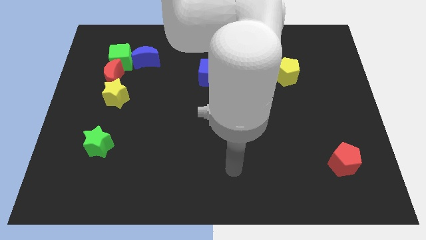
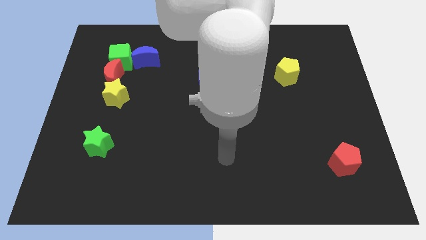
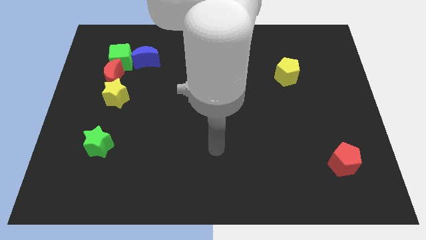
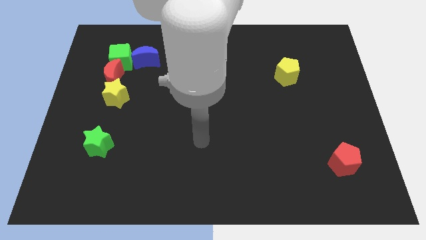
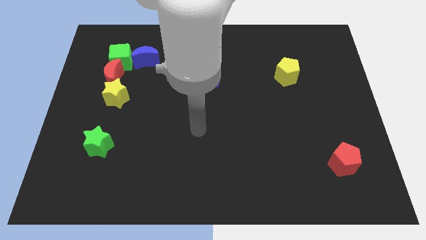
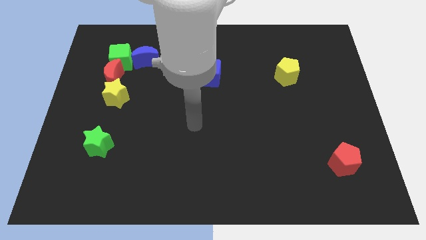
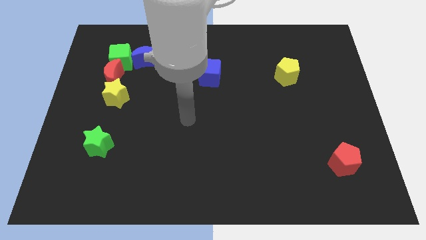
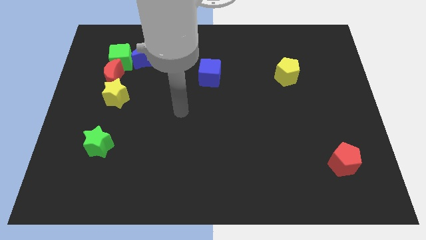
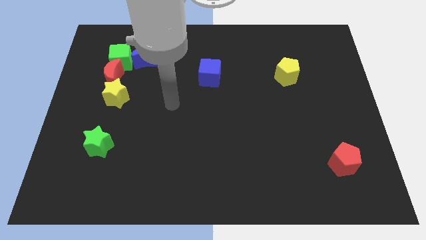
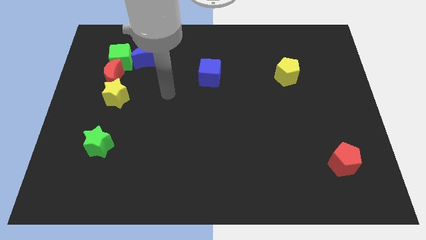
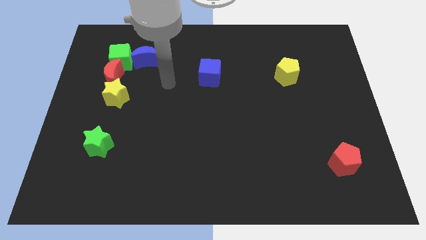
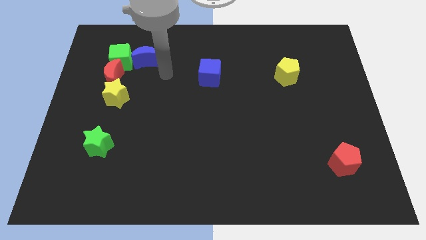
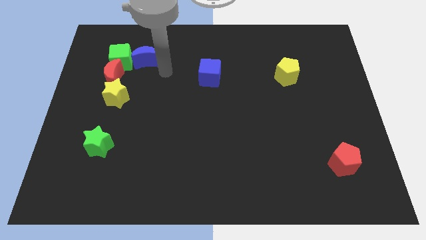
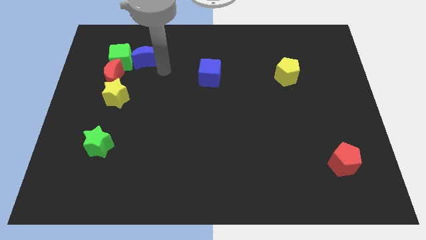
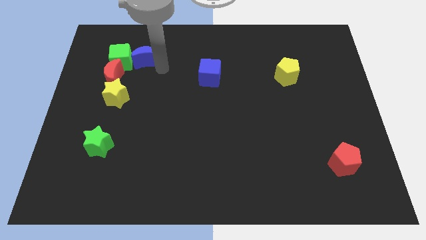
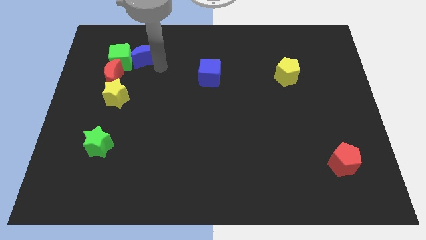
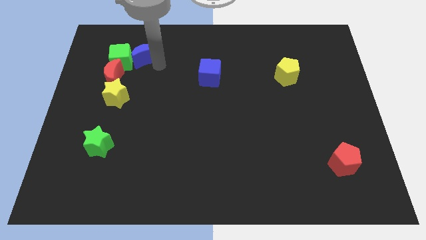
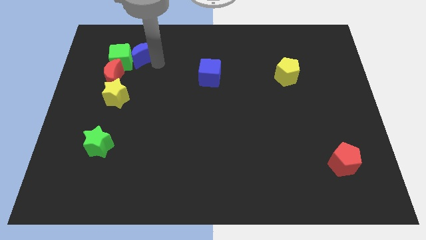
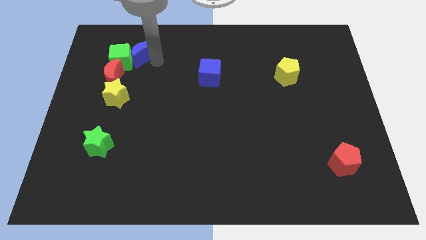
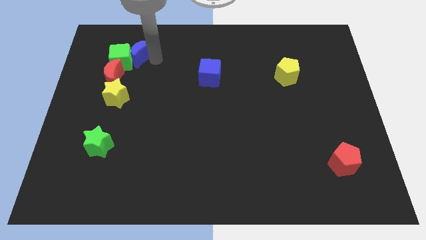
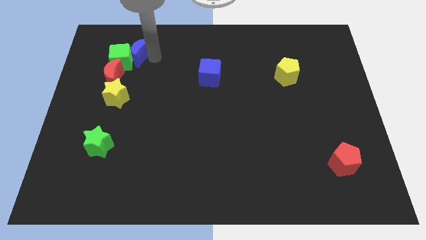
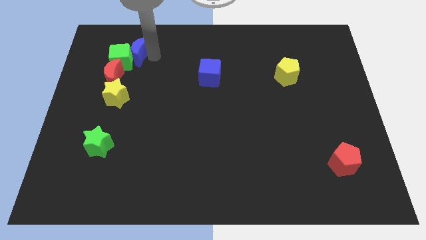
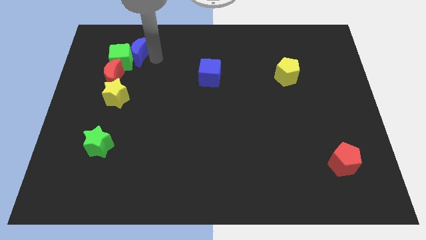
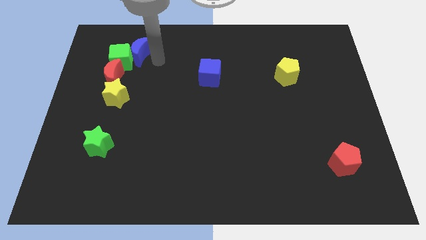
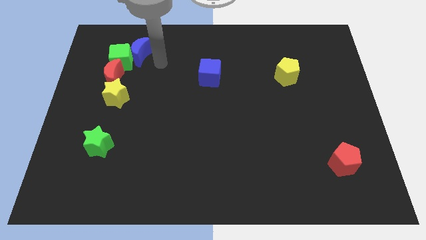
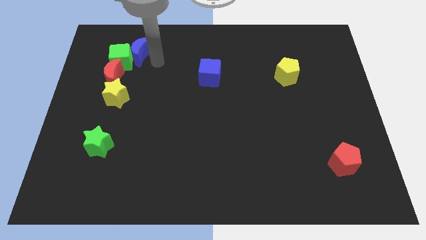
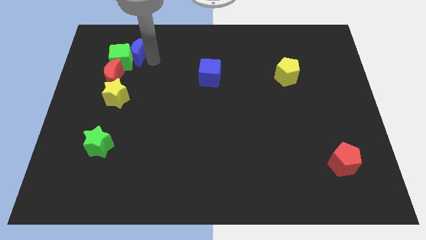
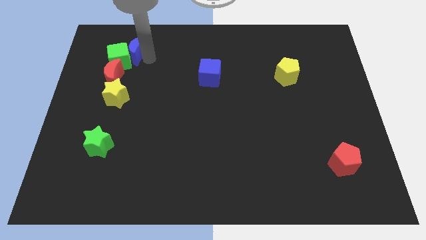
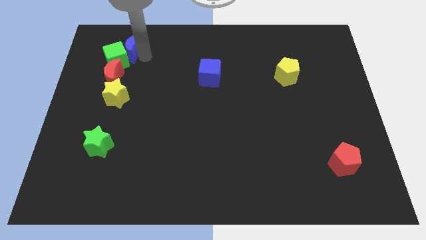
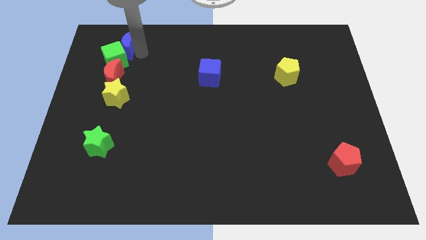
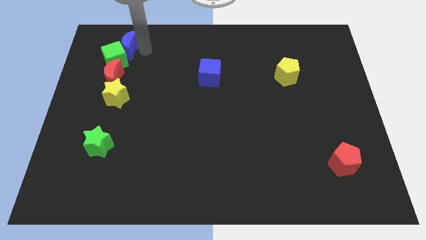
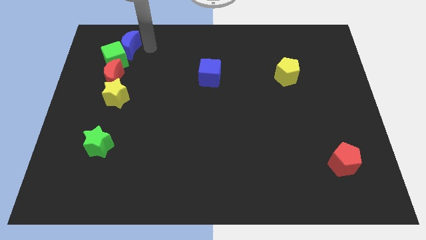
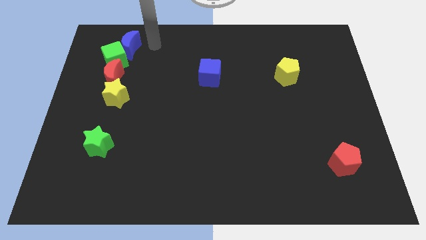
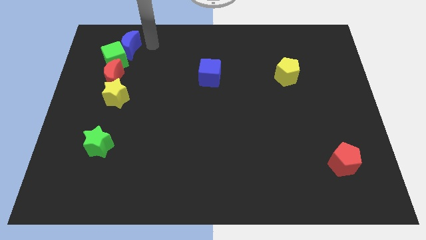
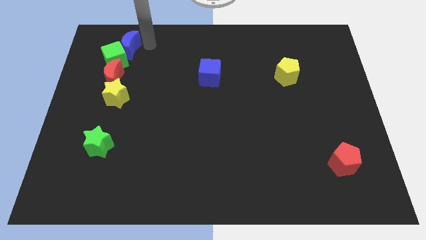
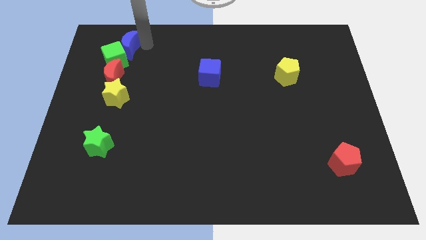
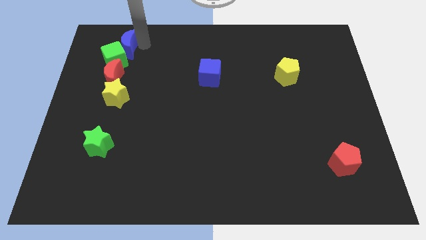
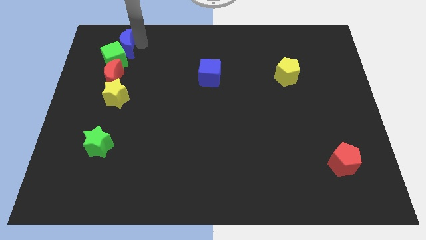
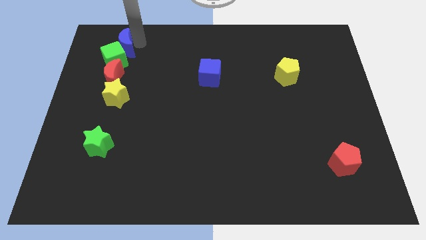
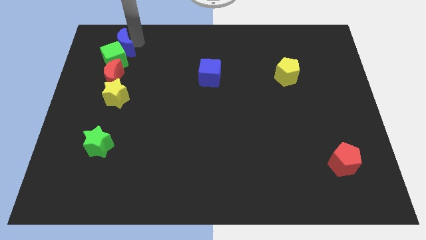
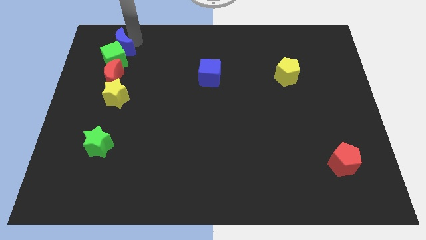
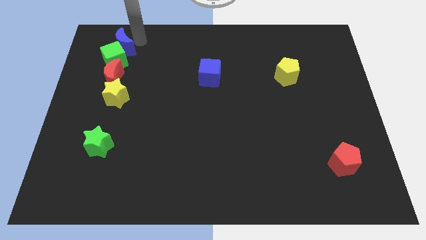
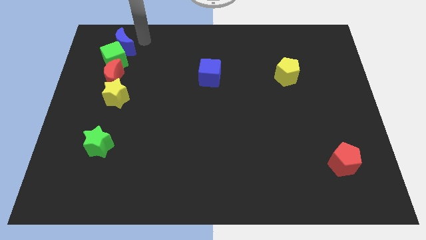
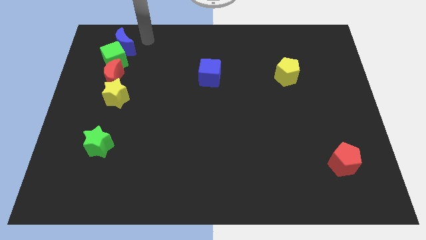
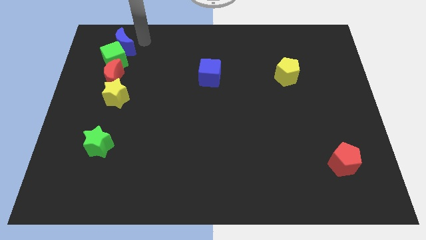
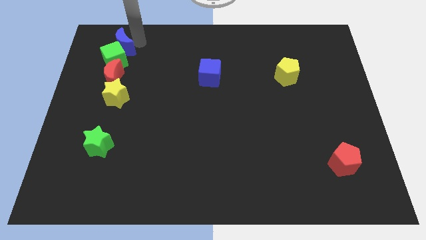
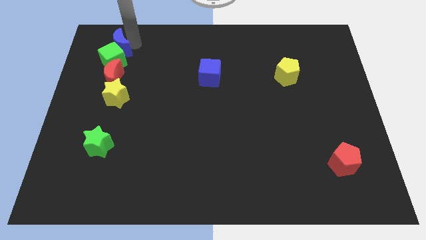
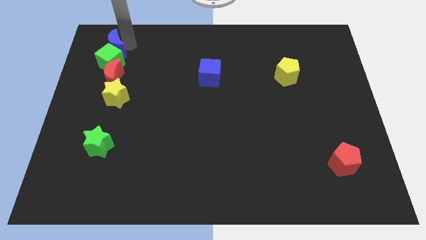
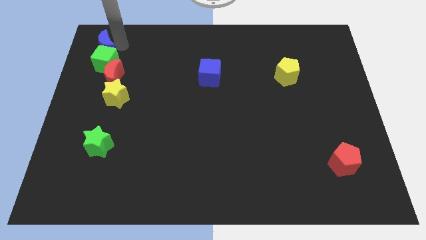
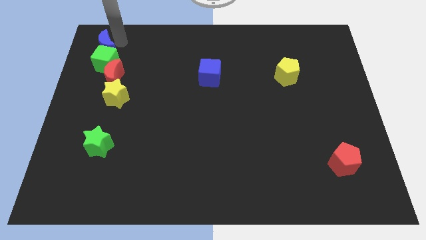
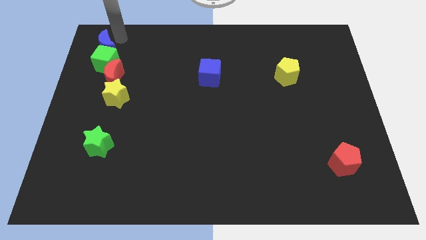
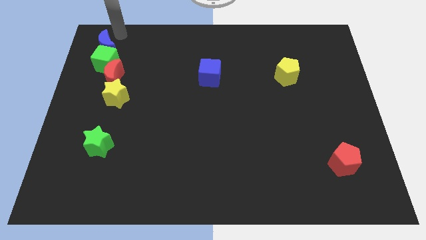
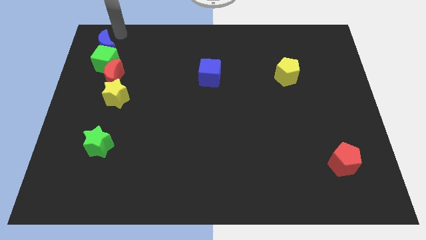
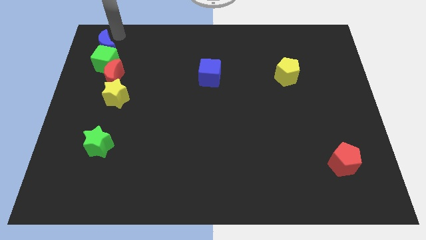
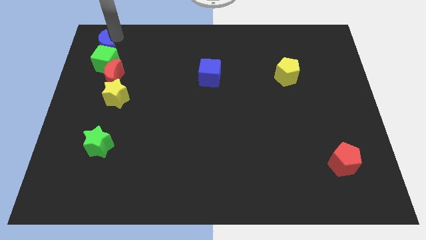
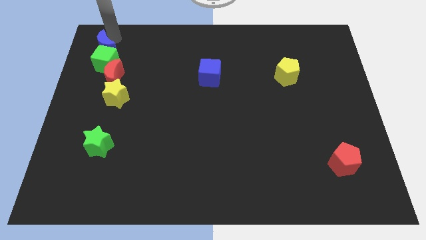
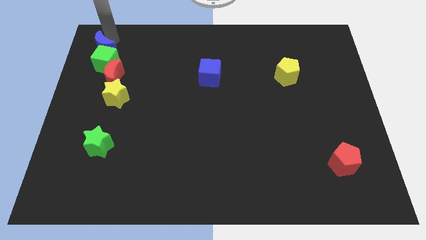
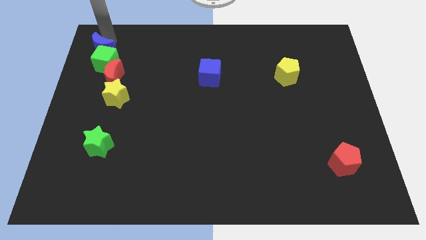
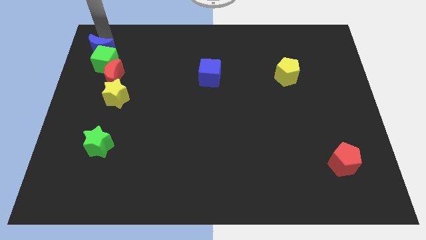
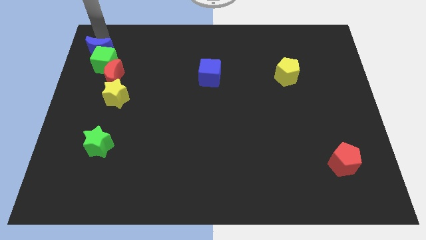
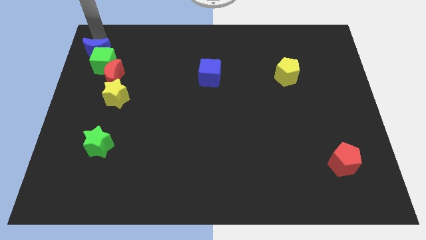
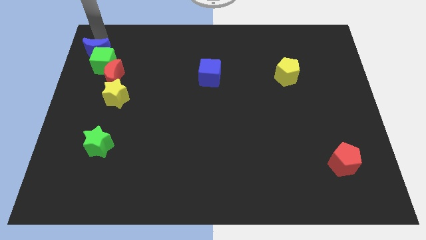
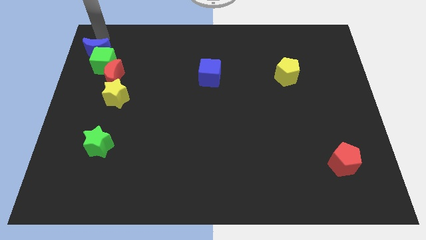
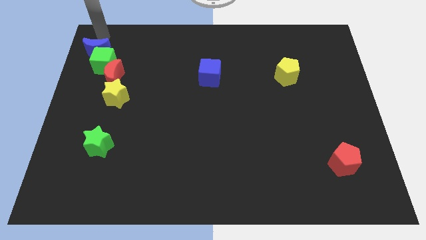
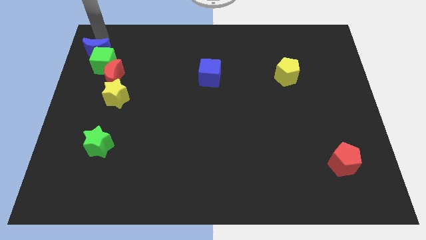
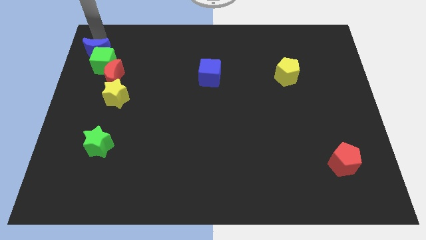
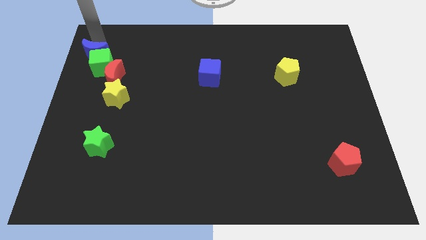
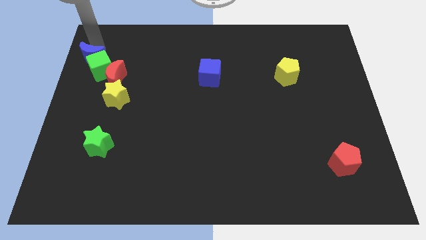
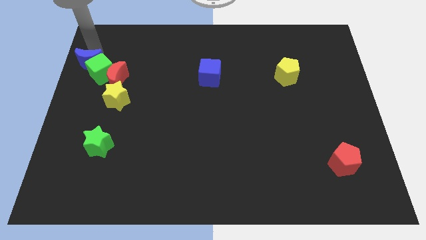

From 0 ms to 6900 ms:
slide the blue moon to the left side
